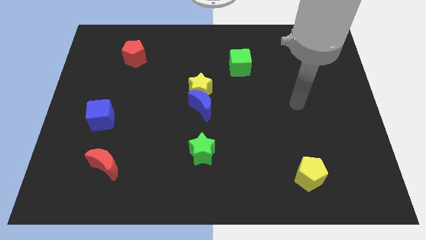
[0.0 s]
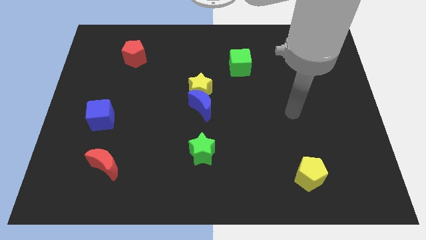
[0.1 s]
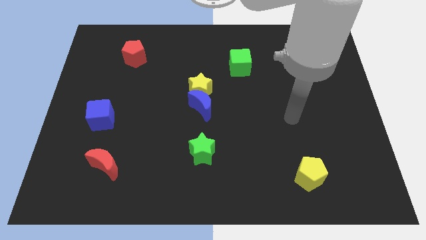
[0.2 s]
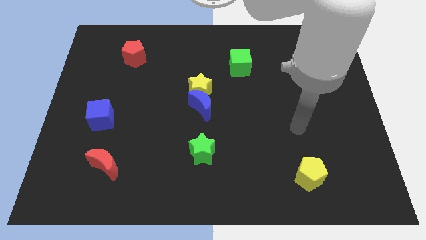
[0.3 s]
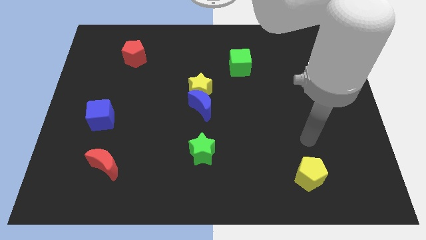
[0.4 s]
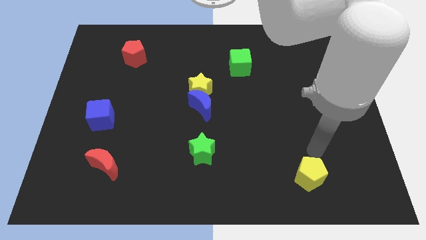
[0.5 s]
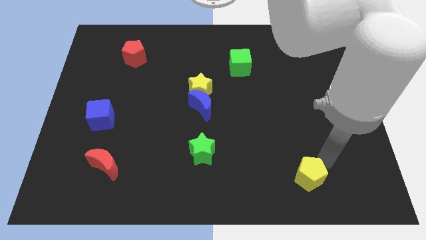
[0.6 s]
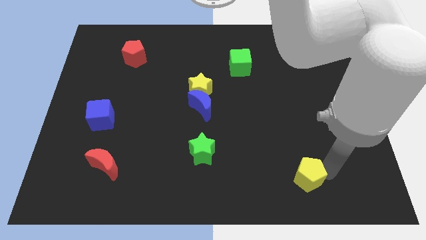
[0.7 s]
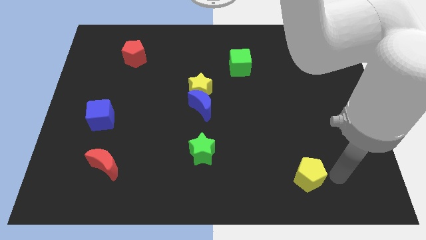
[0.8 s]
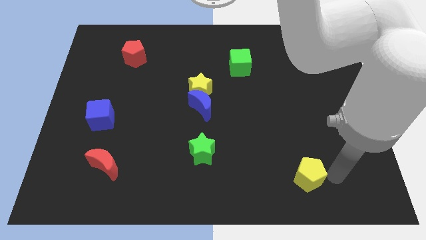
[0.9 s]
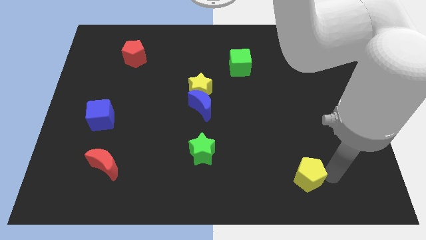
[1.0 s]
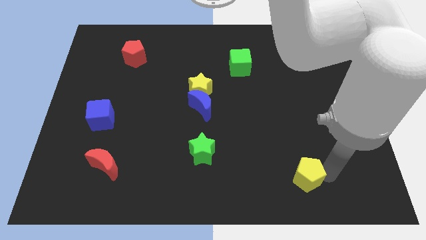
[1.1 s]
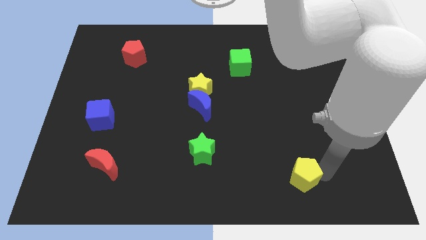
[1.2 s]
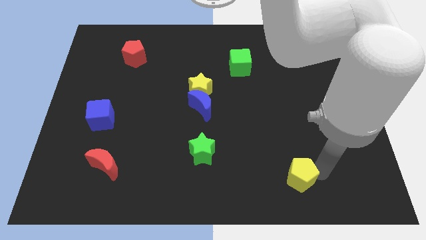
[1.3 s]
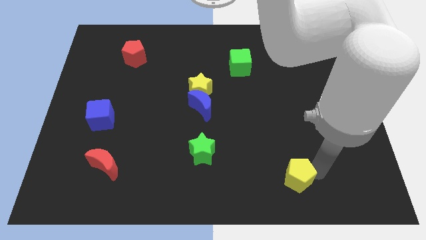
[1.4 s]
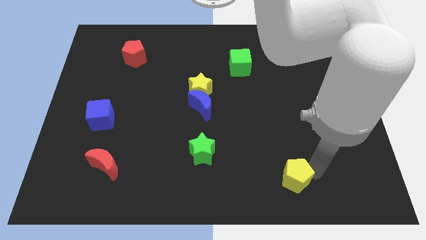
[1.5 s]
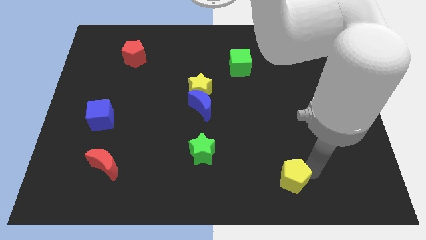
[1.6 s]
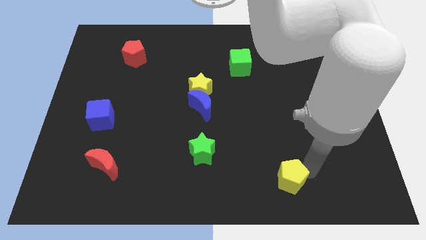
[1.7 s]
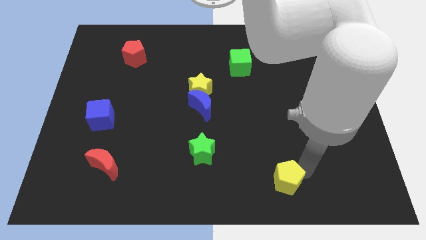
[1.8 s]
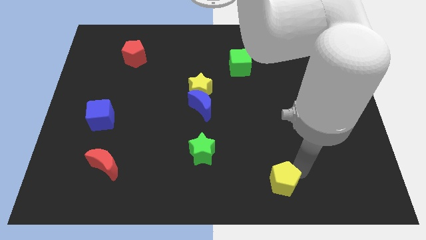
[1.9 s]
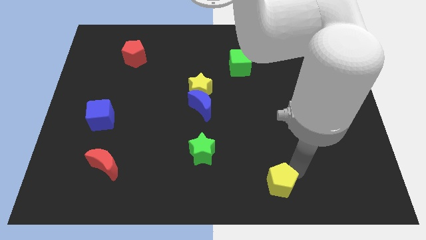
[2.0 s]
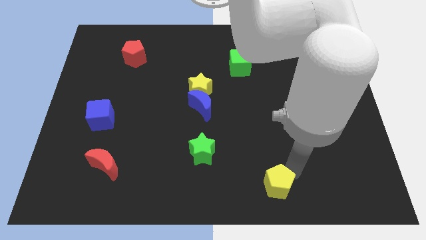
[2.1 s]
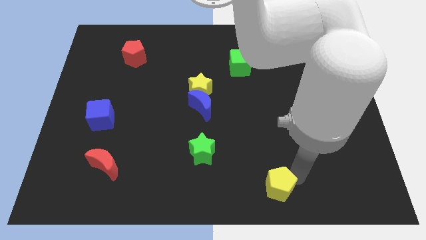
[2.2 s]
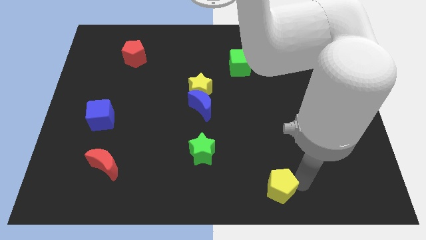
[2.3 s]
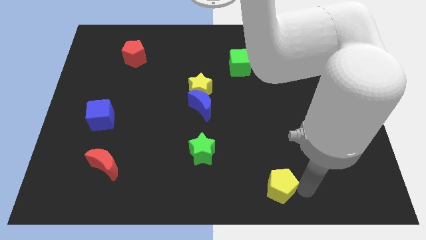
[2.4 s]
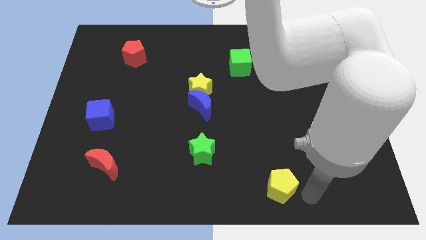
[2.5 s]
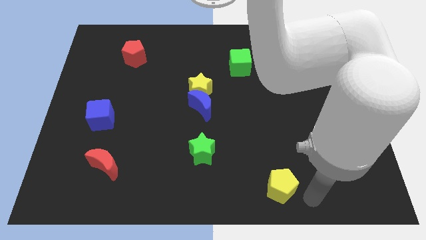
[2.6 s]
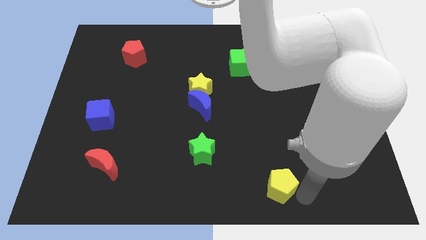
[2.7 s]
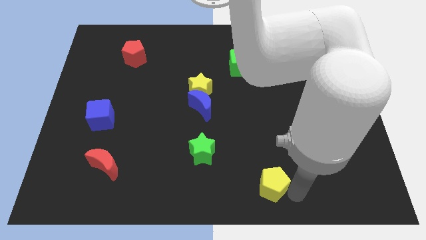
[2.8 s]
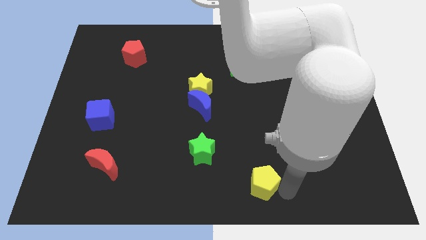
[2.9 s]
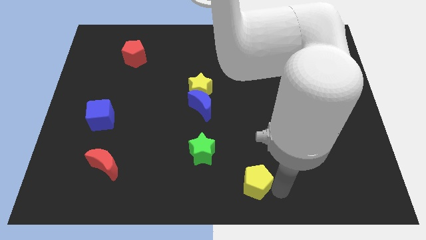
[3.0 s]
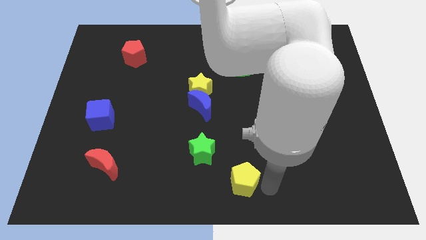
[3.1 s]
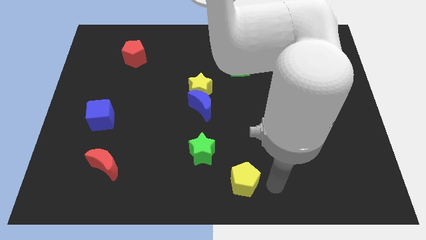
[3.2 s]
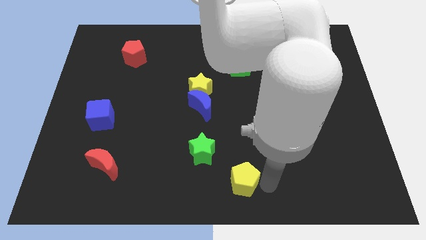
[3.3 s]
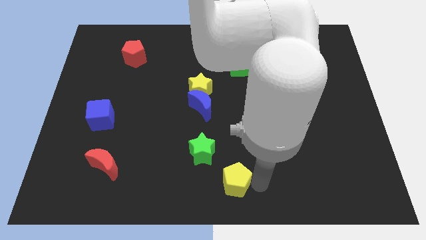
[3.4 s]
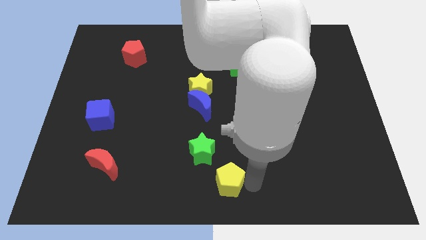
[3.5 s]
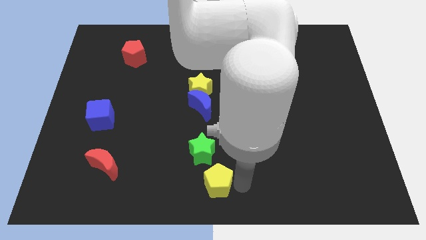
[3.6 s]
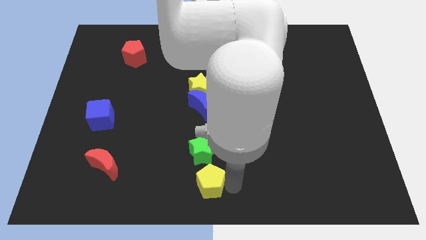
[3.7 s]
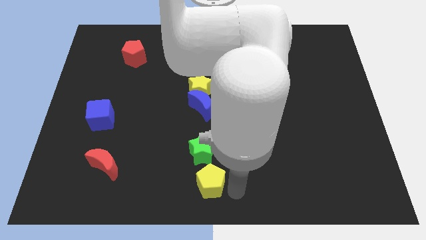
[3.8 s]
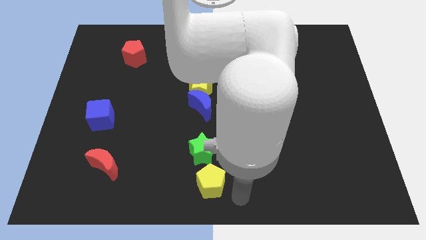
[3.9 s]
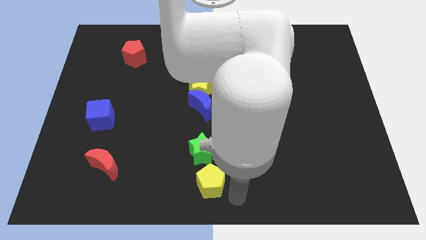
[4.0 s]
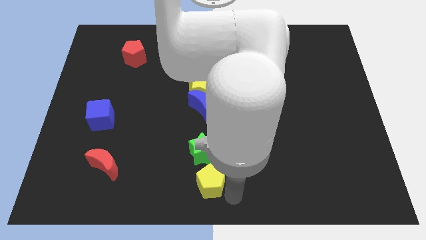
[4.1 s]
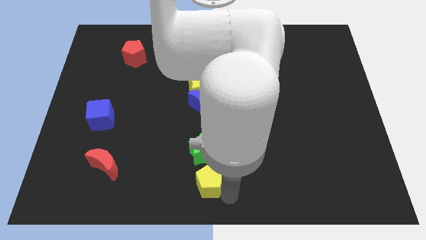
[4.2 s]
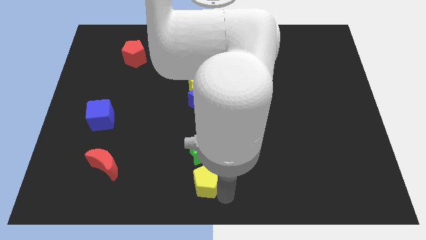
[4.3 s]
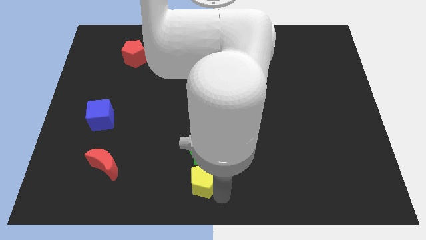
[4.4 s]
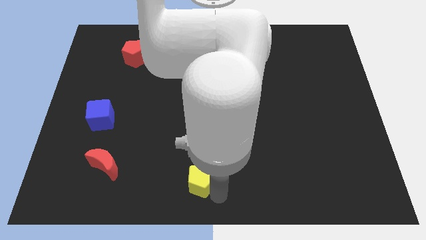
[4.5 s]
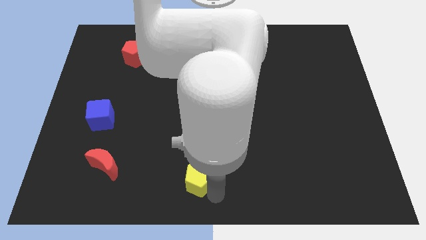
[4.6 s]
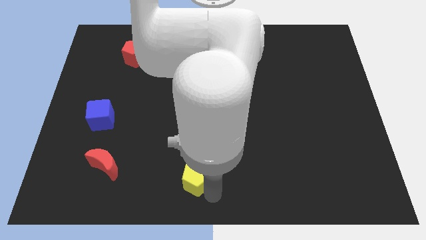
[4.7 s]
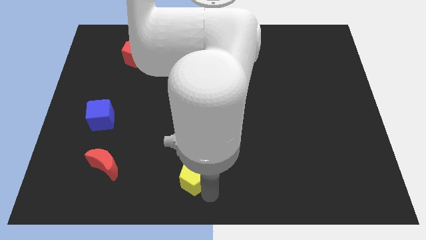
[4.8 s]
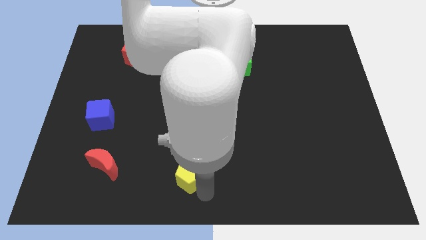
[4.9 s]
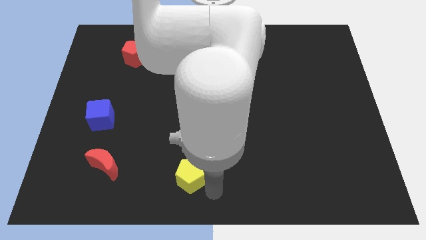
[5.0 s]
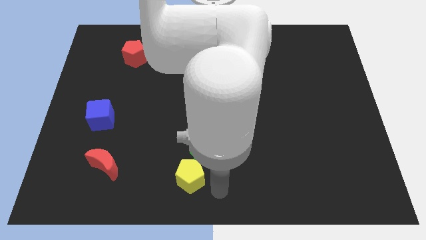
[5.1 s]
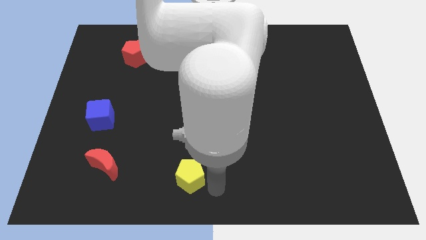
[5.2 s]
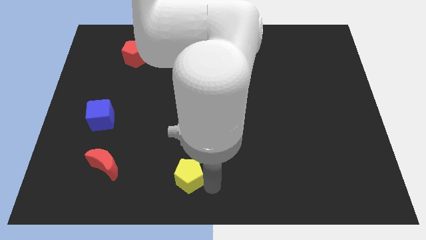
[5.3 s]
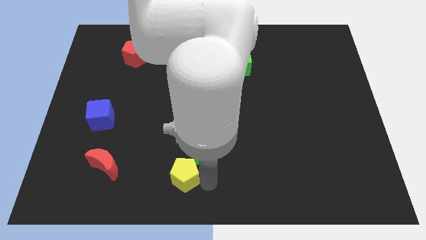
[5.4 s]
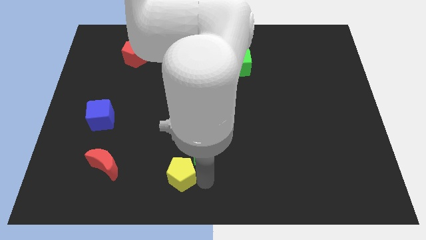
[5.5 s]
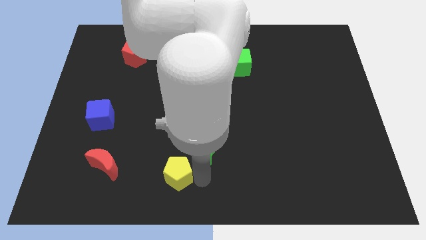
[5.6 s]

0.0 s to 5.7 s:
put the yellow pentagon to the right side of the red moon

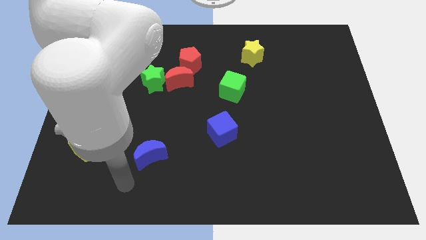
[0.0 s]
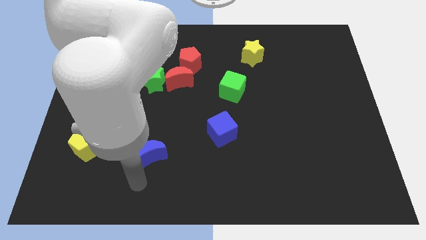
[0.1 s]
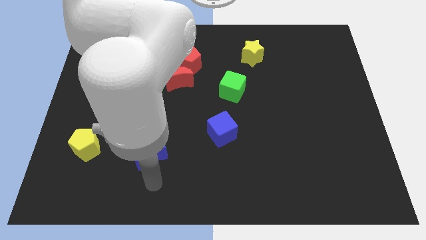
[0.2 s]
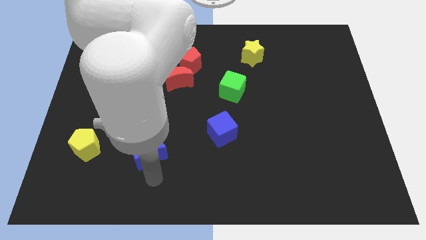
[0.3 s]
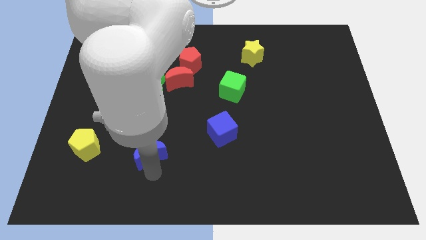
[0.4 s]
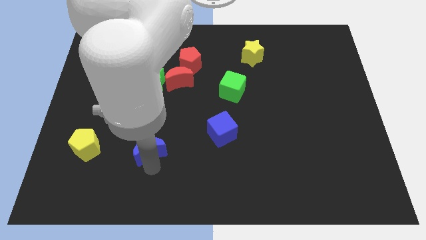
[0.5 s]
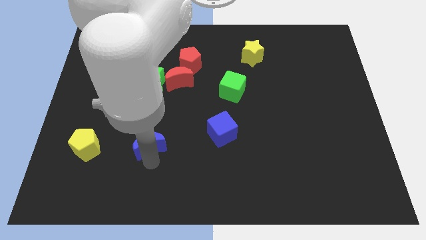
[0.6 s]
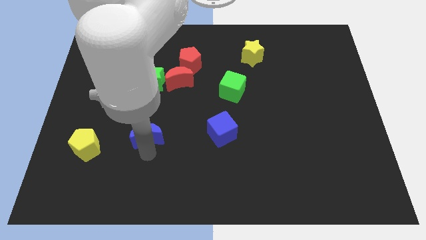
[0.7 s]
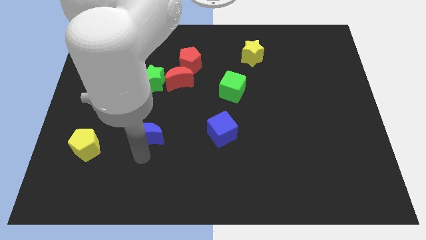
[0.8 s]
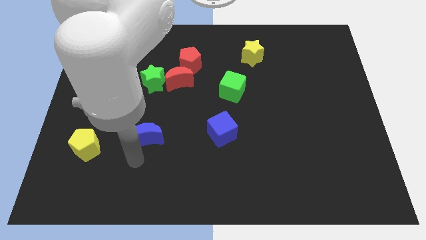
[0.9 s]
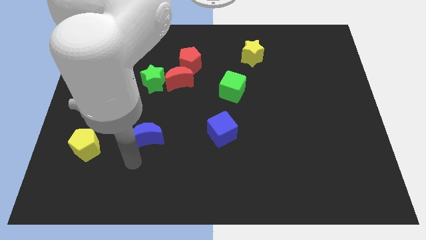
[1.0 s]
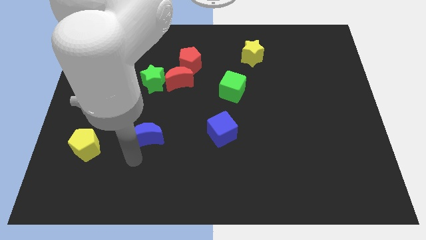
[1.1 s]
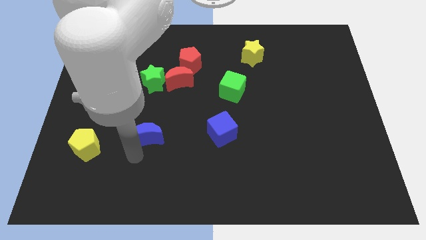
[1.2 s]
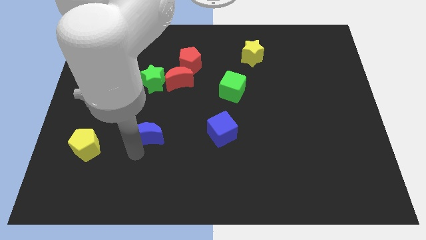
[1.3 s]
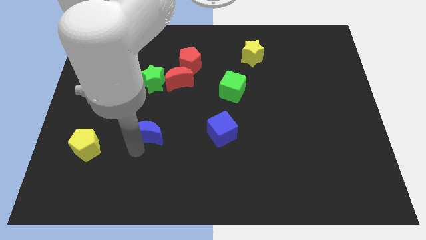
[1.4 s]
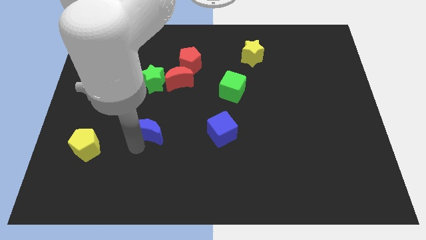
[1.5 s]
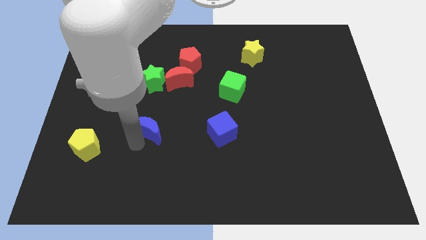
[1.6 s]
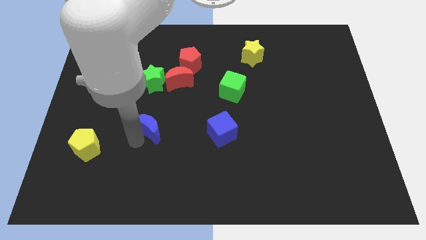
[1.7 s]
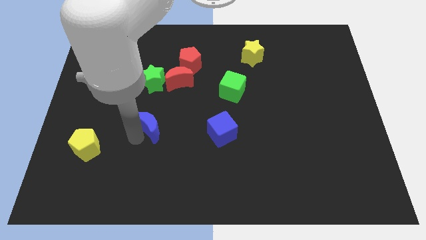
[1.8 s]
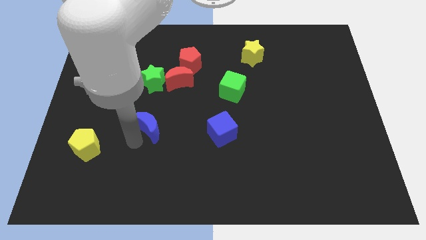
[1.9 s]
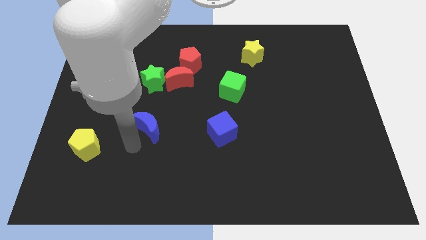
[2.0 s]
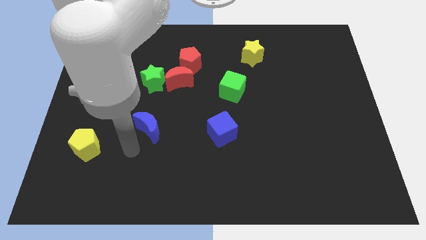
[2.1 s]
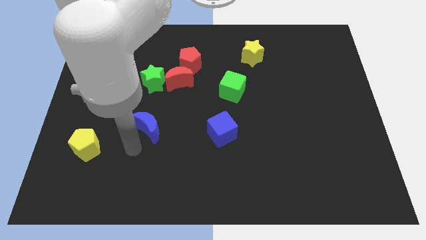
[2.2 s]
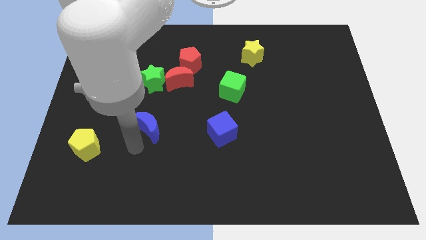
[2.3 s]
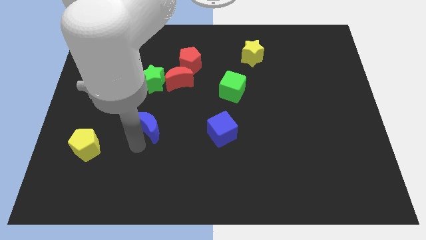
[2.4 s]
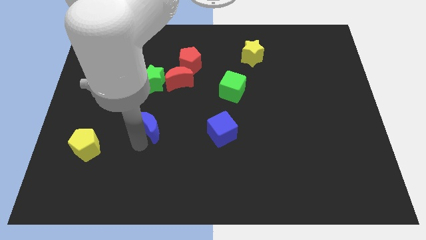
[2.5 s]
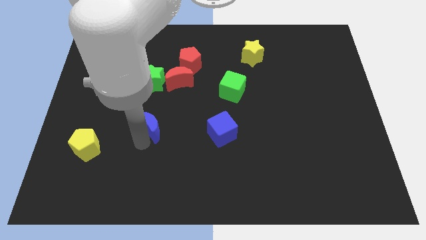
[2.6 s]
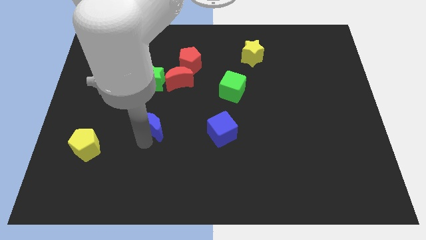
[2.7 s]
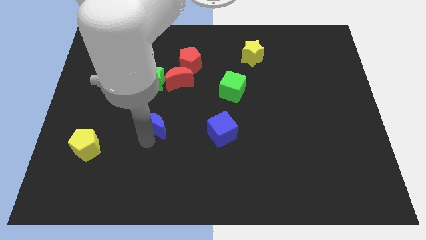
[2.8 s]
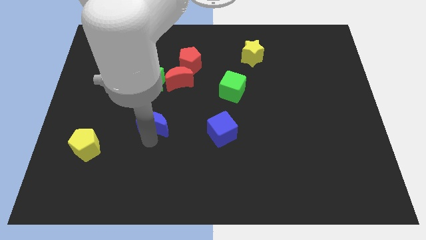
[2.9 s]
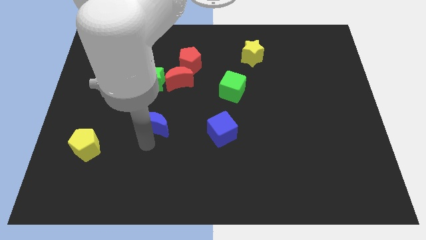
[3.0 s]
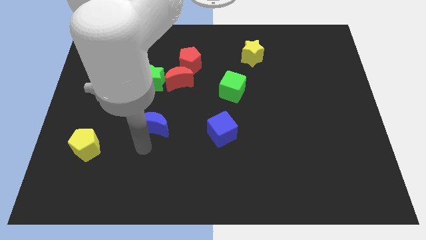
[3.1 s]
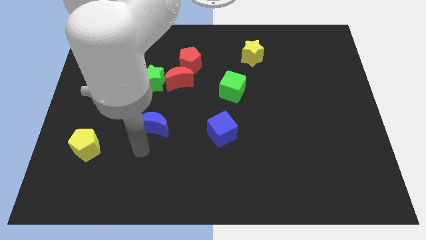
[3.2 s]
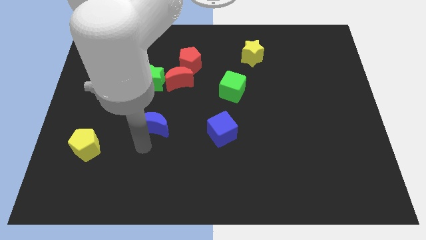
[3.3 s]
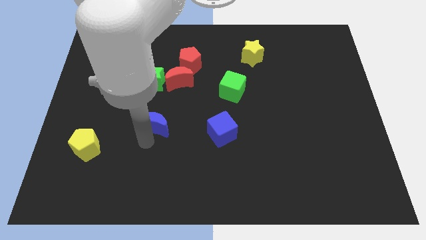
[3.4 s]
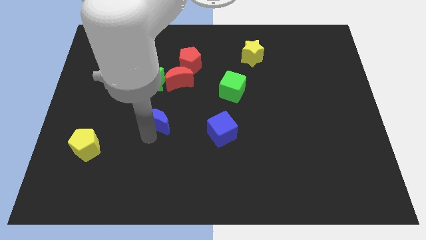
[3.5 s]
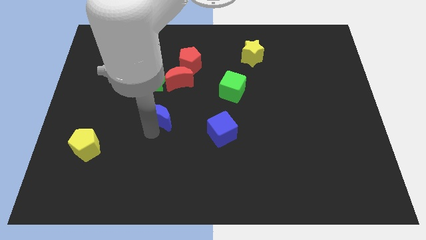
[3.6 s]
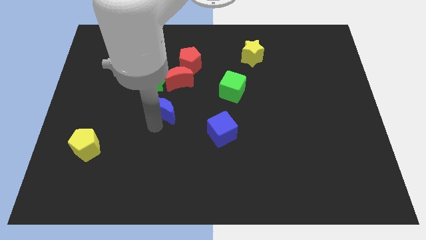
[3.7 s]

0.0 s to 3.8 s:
slide the blue moon to the bottom right of the green star
